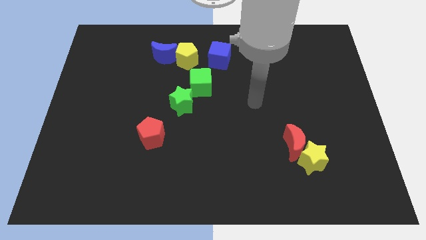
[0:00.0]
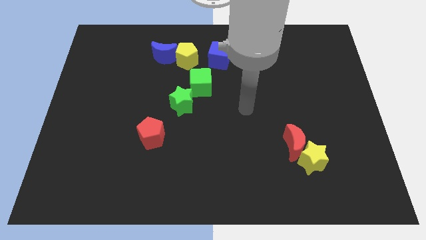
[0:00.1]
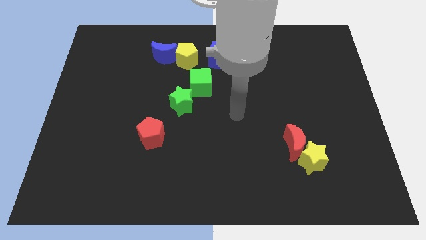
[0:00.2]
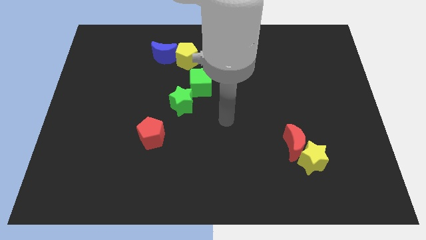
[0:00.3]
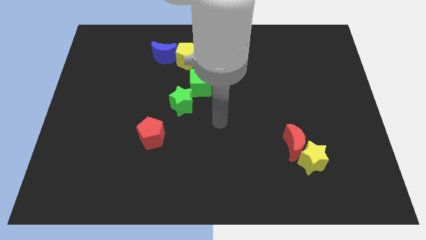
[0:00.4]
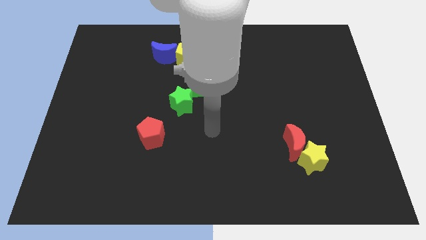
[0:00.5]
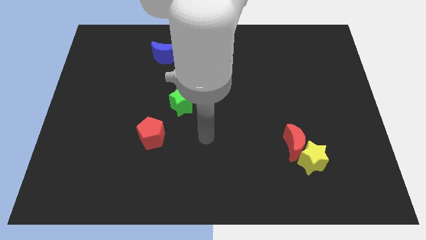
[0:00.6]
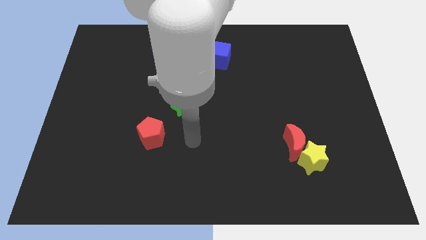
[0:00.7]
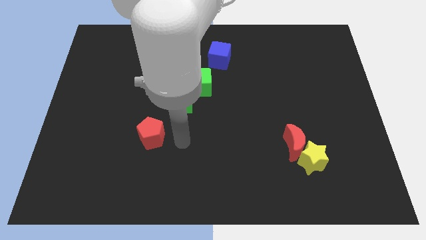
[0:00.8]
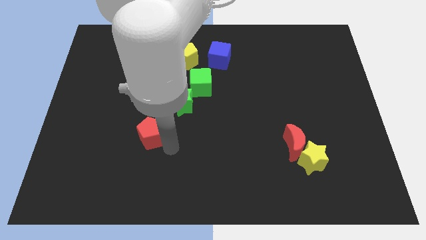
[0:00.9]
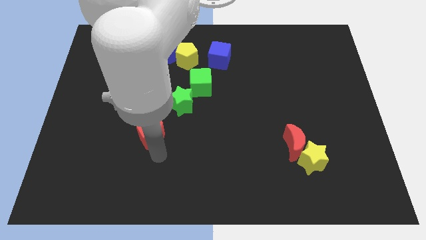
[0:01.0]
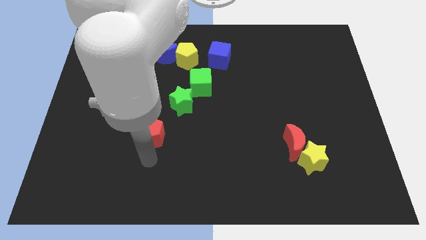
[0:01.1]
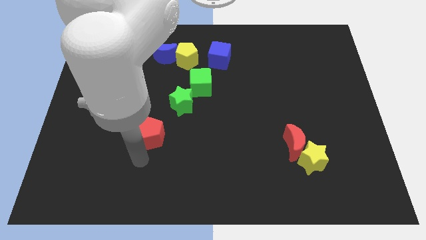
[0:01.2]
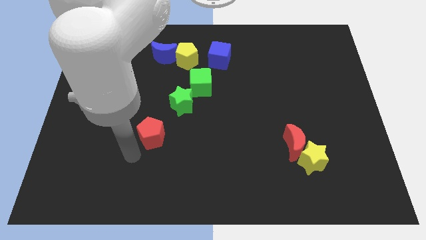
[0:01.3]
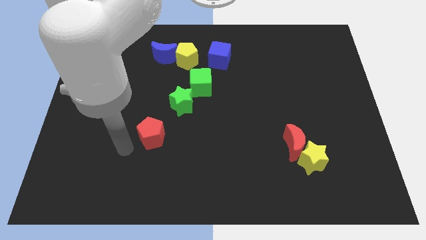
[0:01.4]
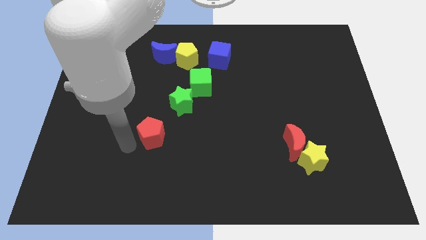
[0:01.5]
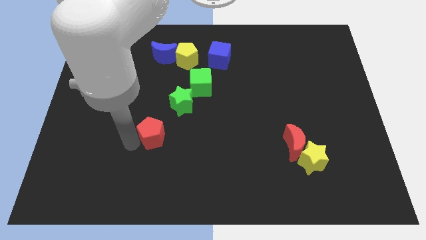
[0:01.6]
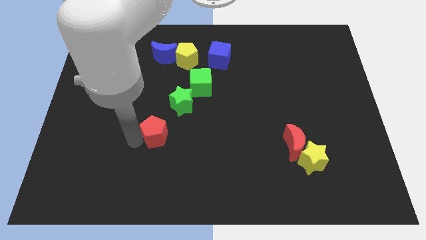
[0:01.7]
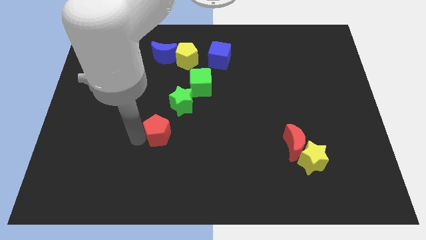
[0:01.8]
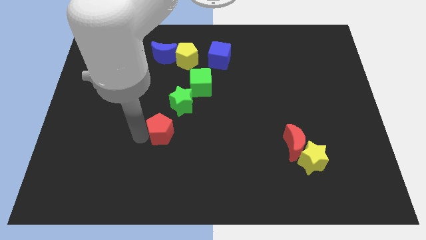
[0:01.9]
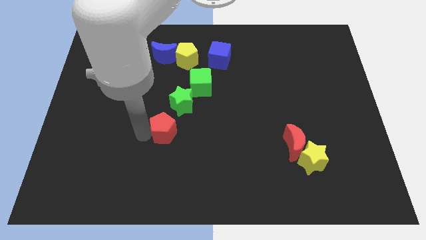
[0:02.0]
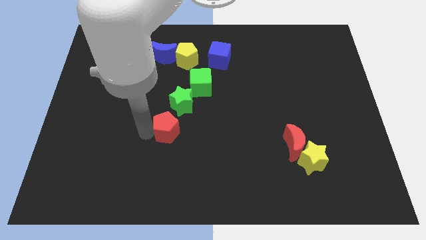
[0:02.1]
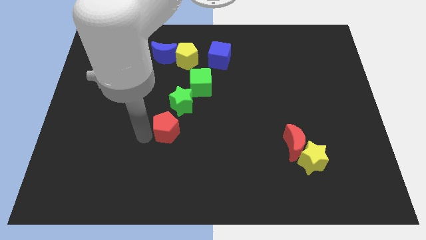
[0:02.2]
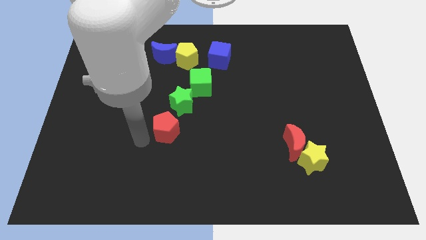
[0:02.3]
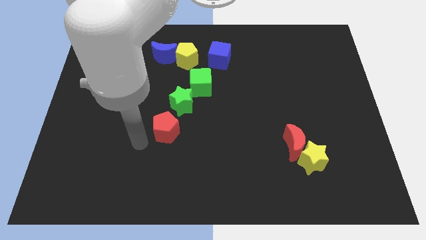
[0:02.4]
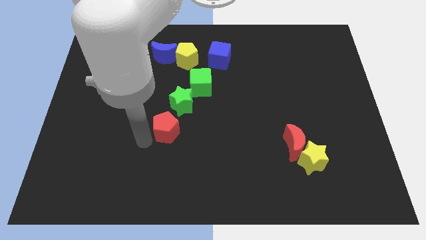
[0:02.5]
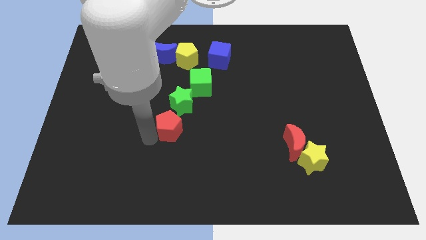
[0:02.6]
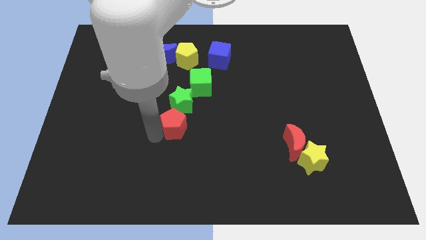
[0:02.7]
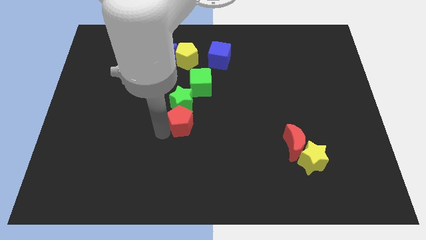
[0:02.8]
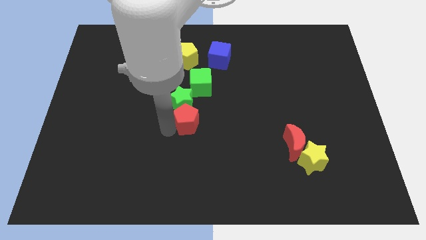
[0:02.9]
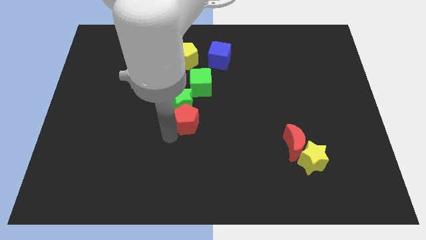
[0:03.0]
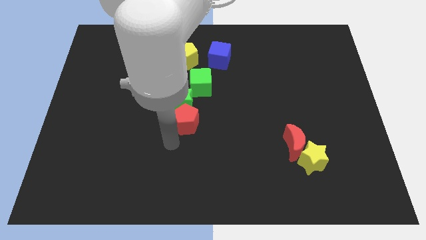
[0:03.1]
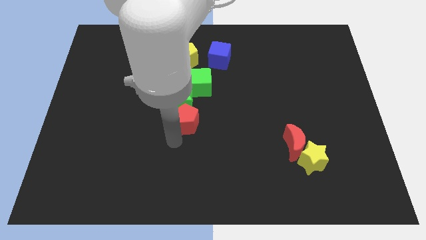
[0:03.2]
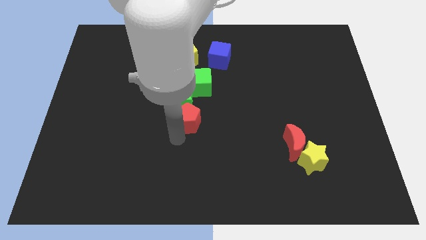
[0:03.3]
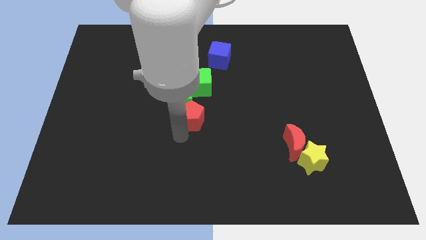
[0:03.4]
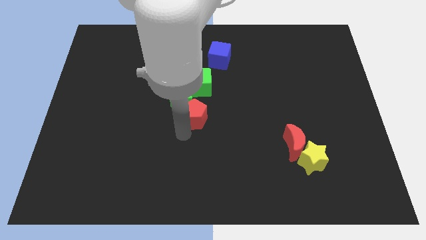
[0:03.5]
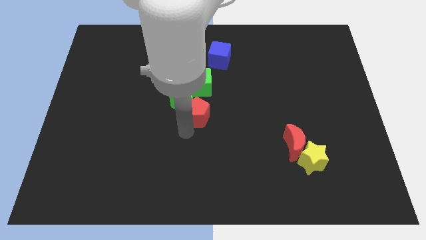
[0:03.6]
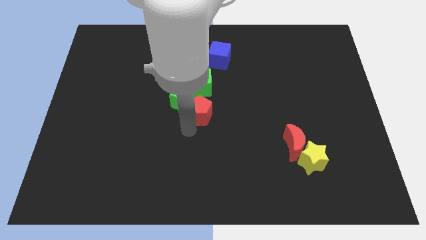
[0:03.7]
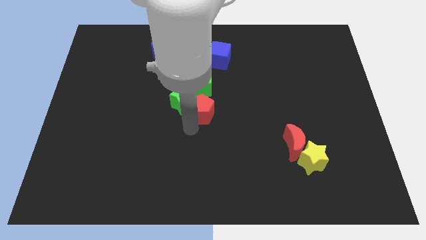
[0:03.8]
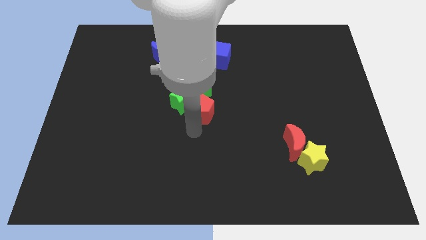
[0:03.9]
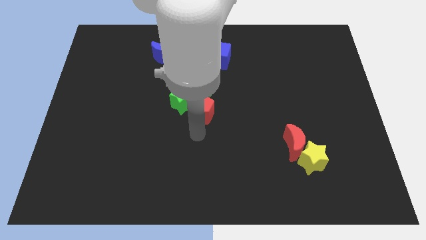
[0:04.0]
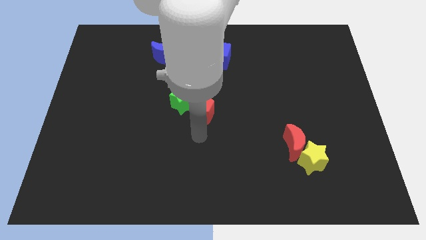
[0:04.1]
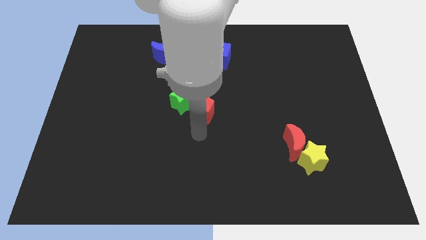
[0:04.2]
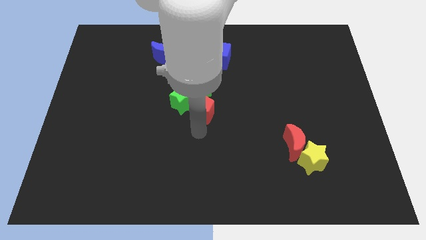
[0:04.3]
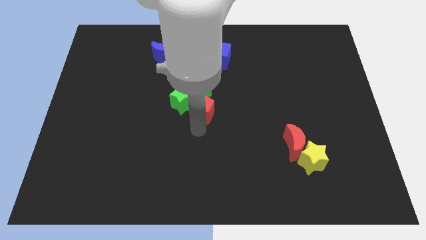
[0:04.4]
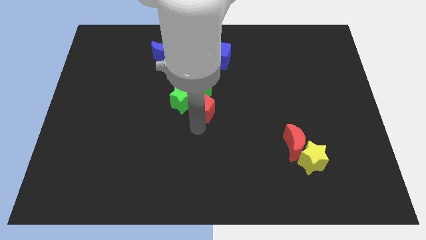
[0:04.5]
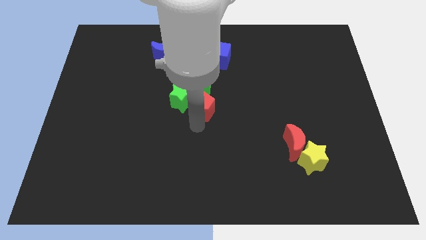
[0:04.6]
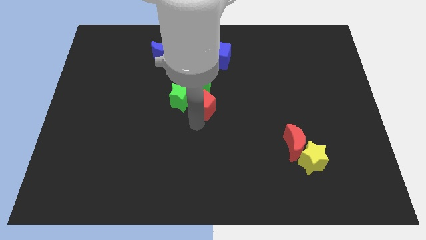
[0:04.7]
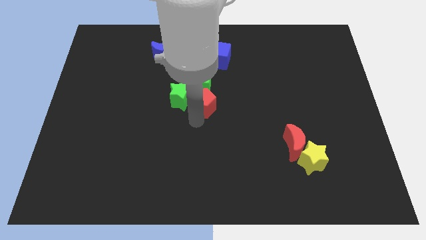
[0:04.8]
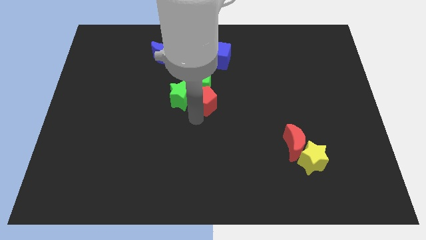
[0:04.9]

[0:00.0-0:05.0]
push the red pentagon to the green cube

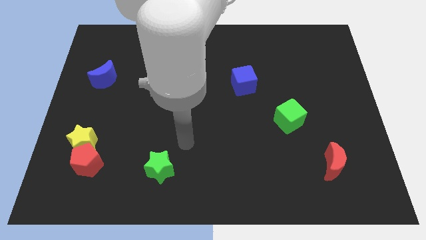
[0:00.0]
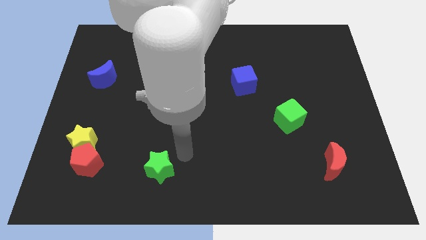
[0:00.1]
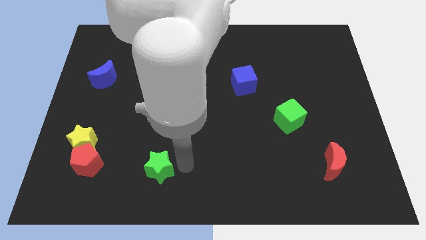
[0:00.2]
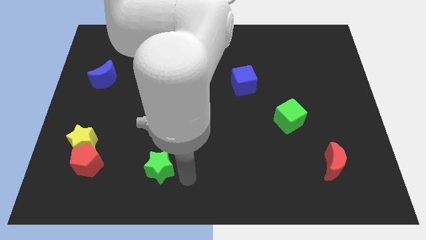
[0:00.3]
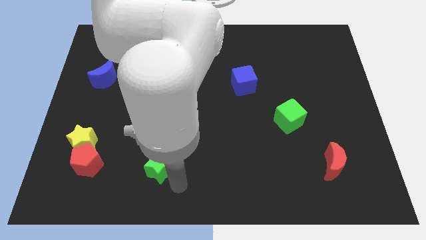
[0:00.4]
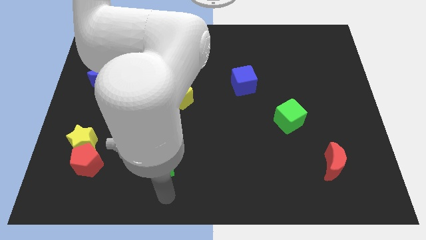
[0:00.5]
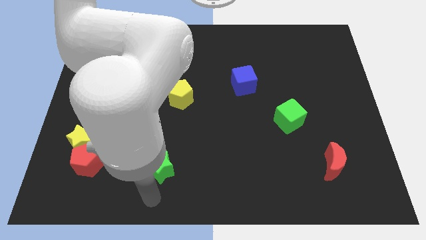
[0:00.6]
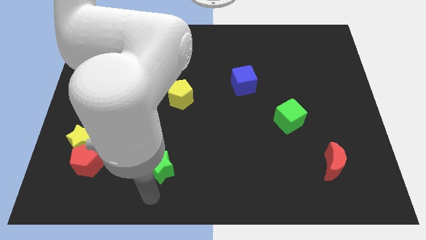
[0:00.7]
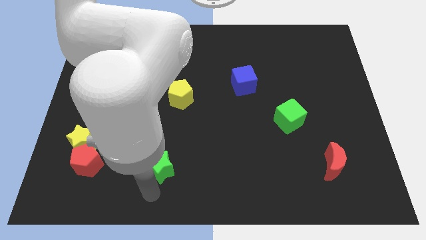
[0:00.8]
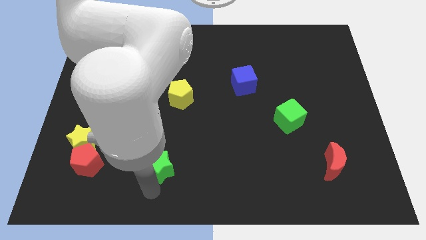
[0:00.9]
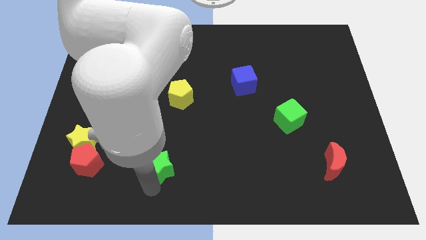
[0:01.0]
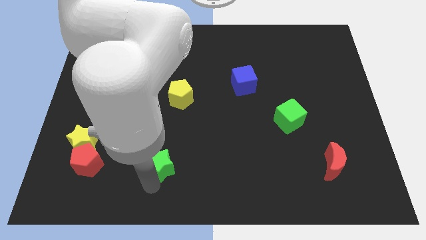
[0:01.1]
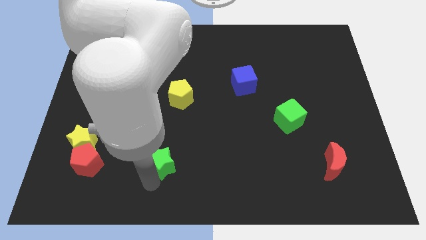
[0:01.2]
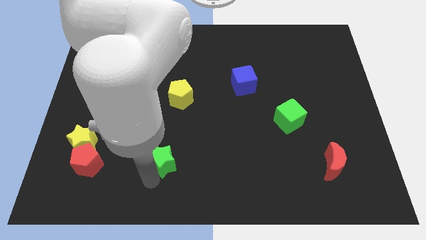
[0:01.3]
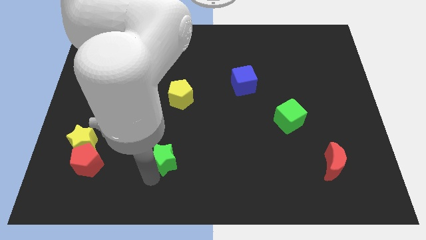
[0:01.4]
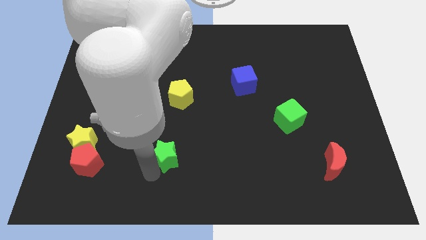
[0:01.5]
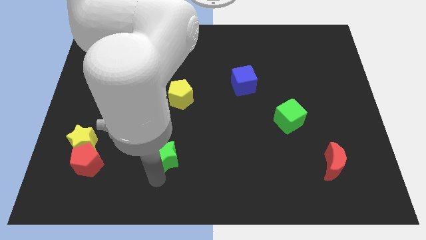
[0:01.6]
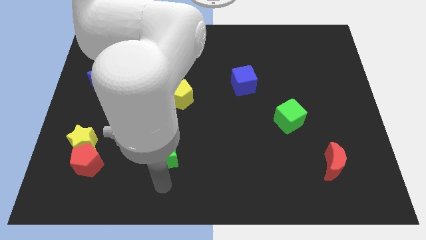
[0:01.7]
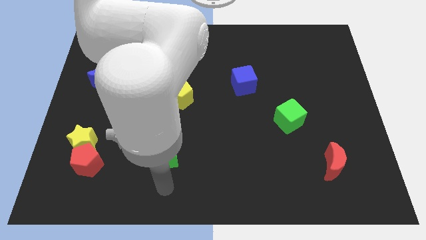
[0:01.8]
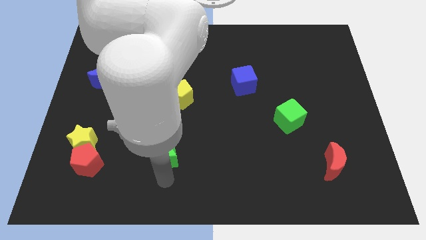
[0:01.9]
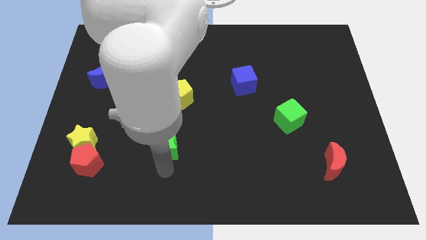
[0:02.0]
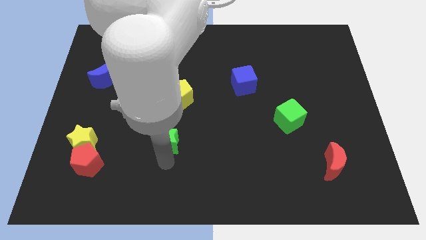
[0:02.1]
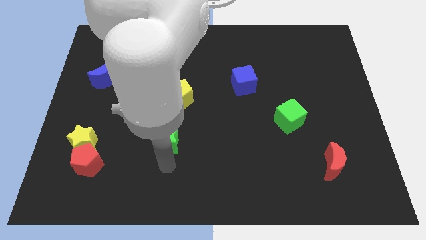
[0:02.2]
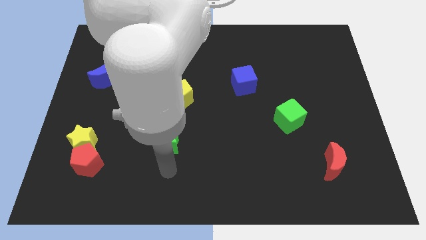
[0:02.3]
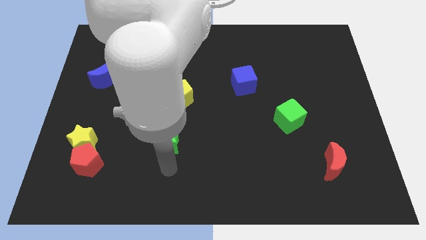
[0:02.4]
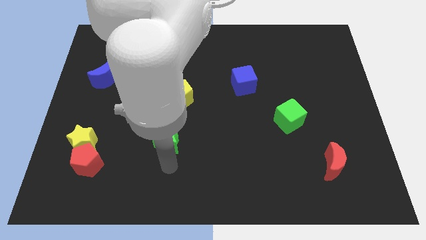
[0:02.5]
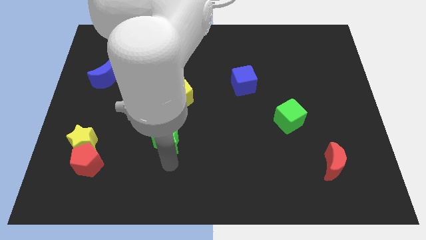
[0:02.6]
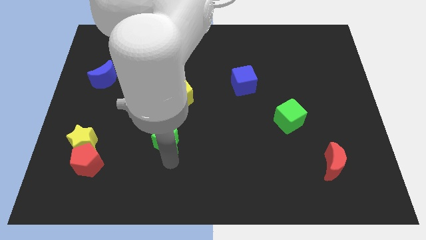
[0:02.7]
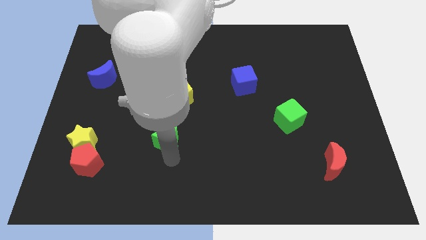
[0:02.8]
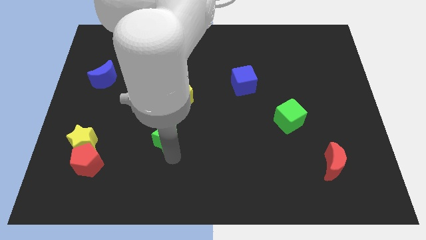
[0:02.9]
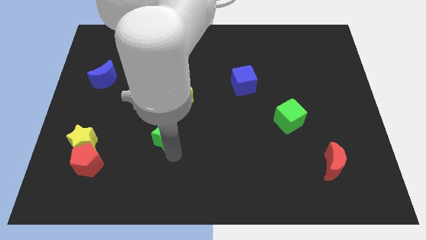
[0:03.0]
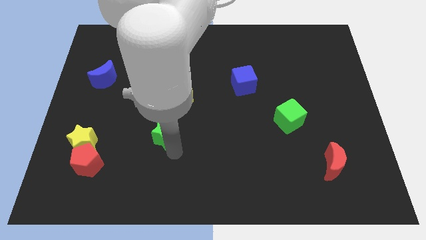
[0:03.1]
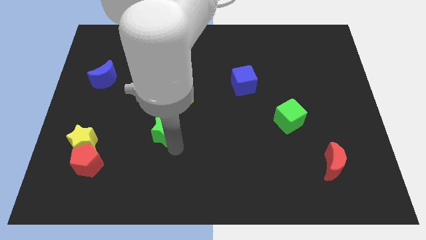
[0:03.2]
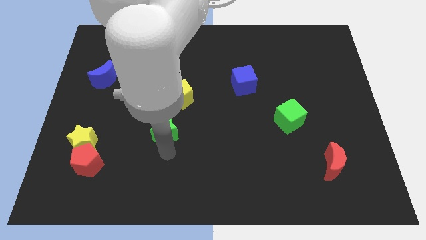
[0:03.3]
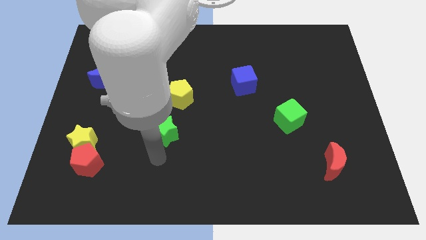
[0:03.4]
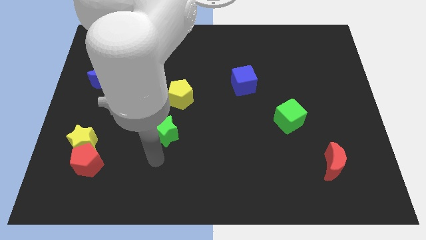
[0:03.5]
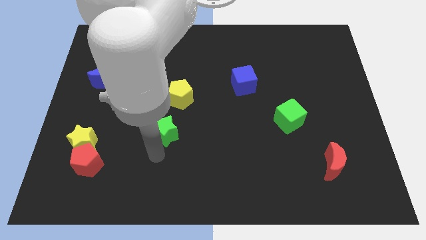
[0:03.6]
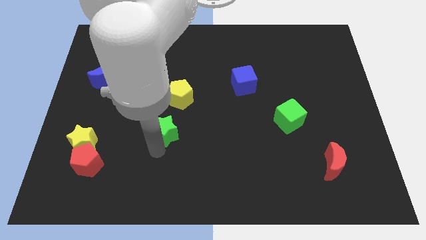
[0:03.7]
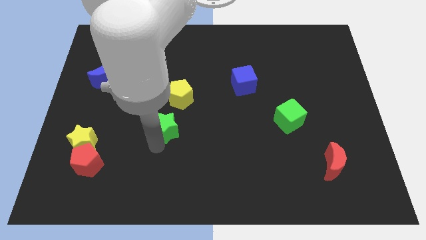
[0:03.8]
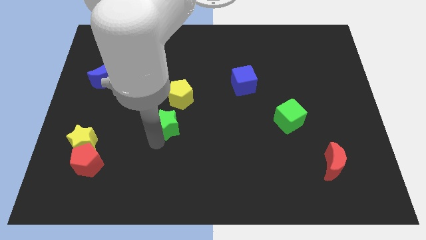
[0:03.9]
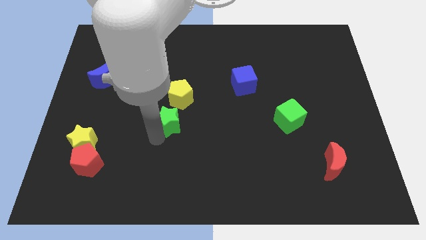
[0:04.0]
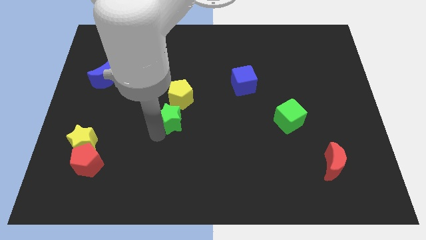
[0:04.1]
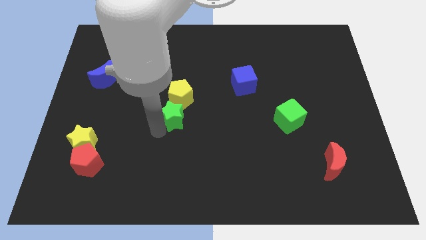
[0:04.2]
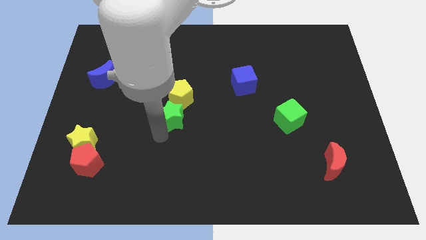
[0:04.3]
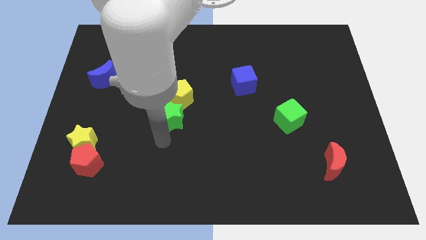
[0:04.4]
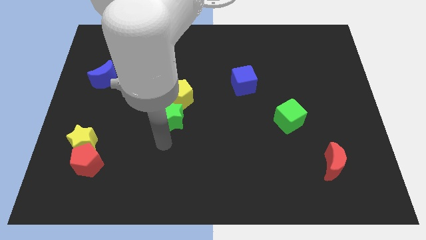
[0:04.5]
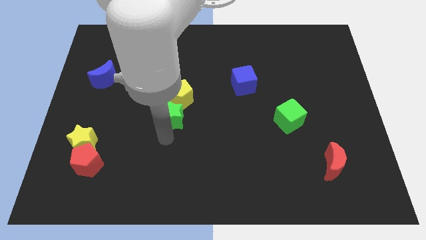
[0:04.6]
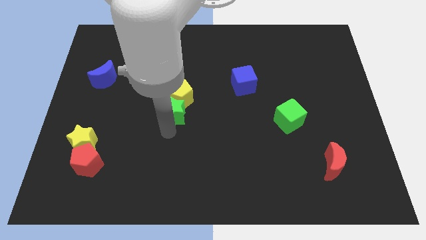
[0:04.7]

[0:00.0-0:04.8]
push the green star next to the yellow pentagon
